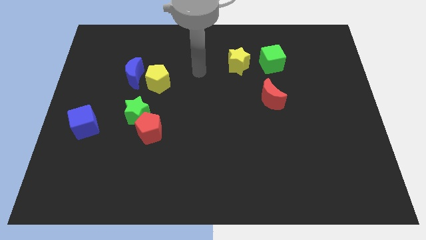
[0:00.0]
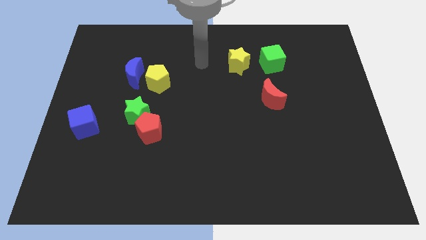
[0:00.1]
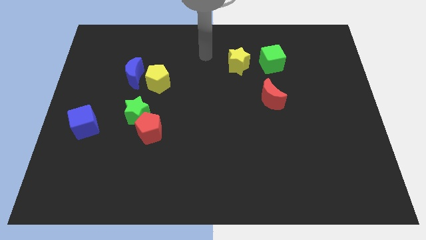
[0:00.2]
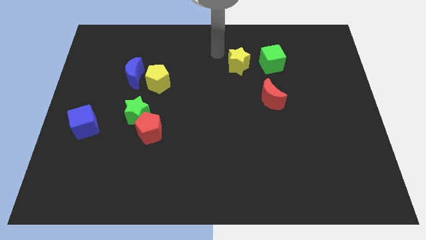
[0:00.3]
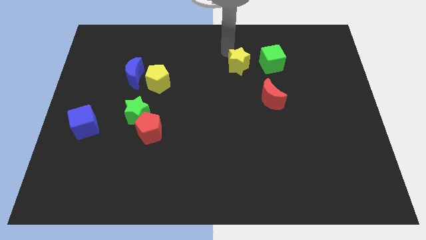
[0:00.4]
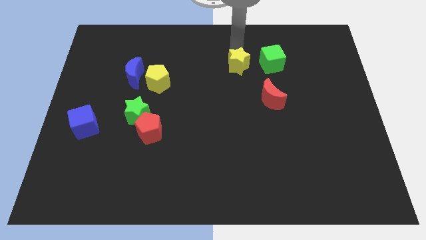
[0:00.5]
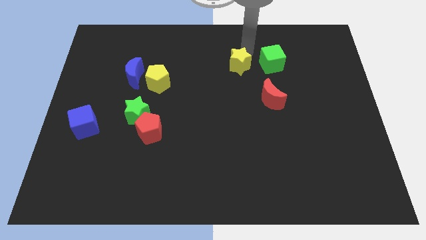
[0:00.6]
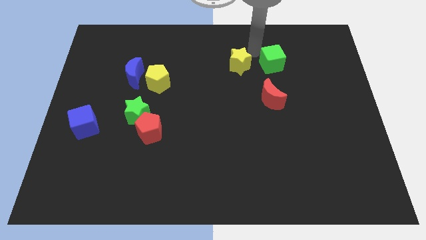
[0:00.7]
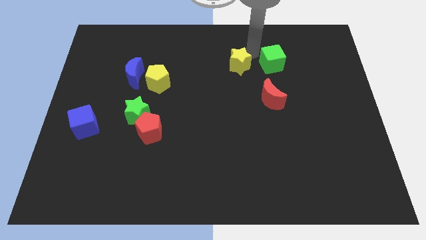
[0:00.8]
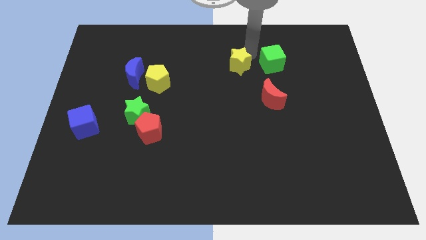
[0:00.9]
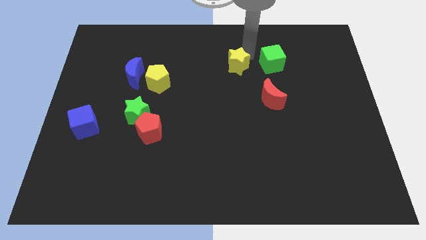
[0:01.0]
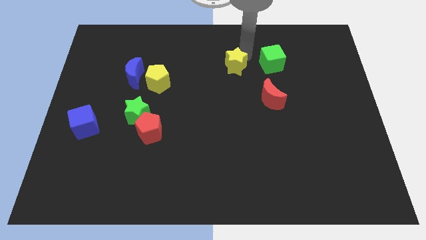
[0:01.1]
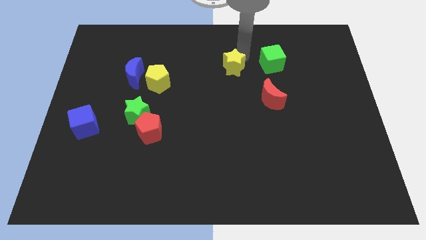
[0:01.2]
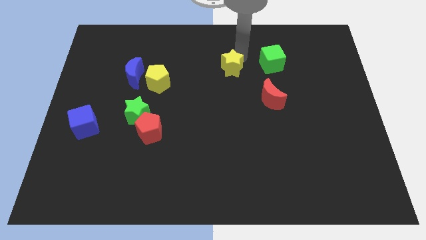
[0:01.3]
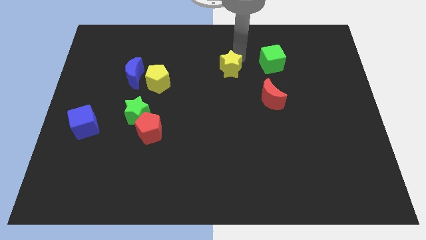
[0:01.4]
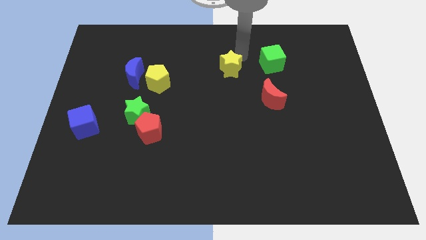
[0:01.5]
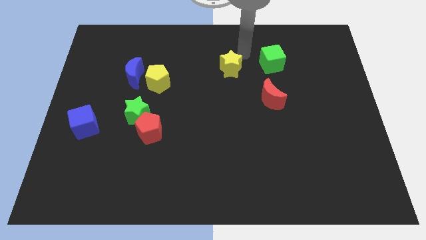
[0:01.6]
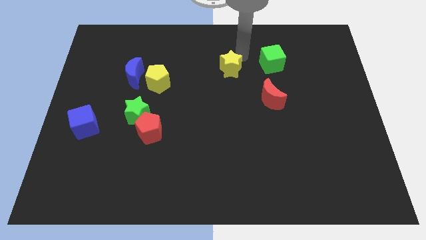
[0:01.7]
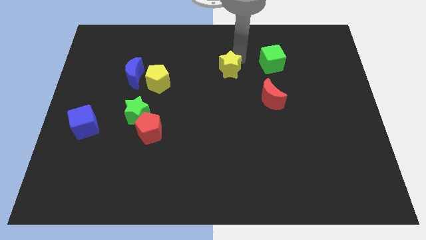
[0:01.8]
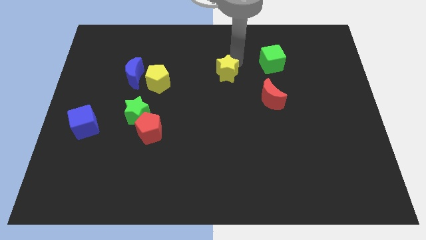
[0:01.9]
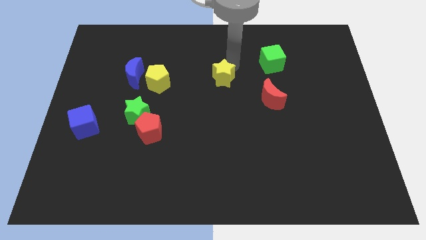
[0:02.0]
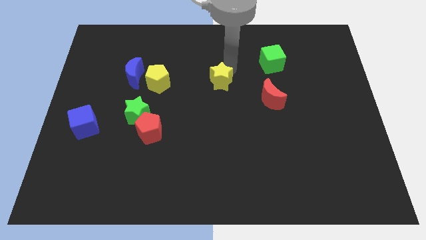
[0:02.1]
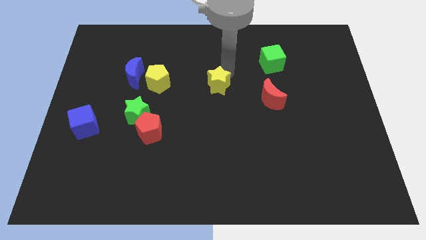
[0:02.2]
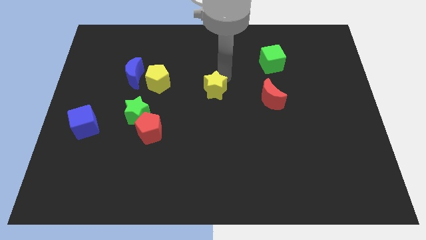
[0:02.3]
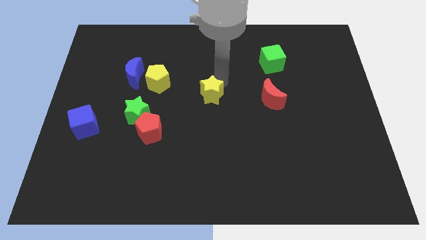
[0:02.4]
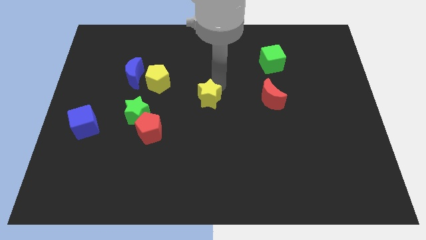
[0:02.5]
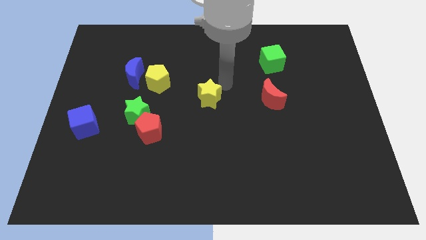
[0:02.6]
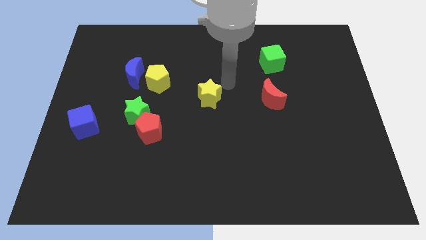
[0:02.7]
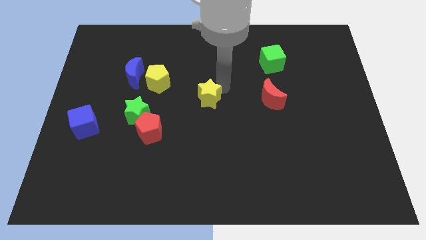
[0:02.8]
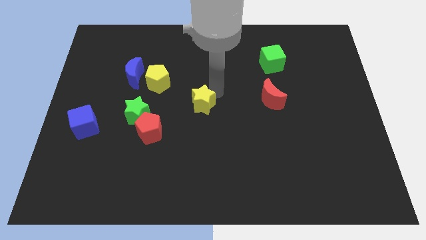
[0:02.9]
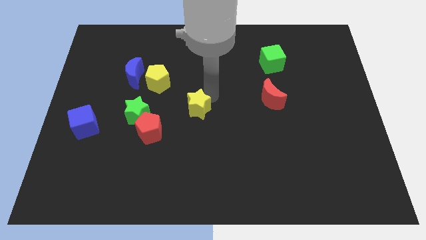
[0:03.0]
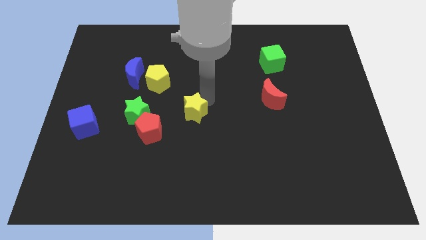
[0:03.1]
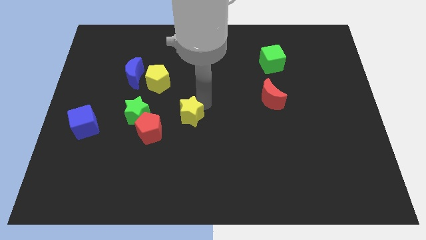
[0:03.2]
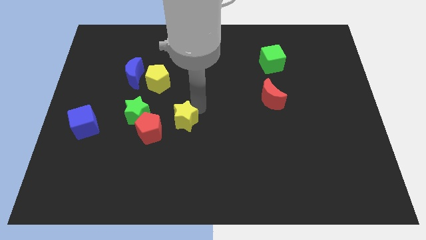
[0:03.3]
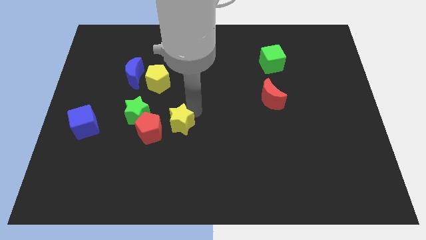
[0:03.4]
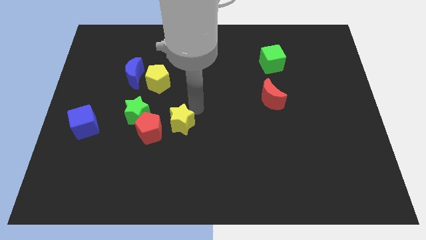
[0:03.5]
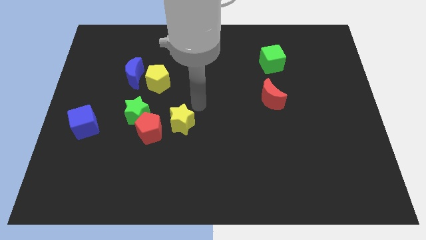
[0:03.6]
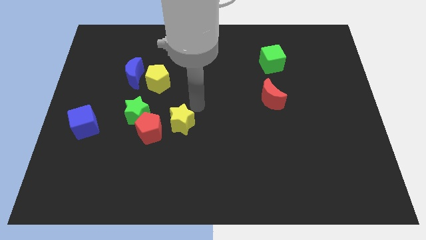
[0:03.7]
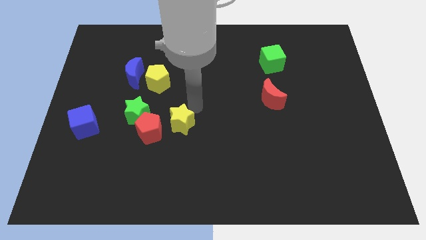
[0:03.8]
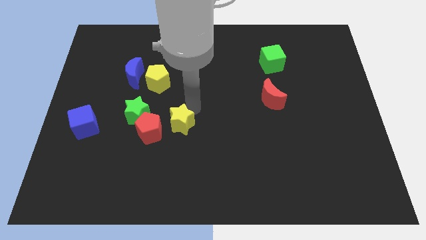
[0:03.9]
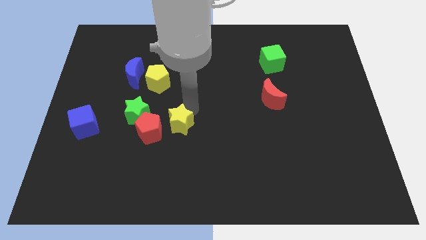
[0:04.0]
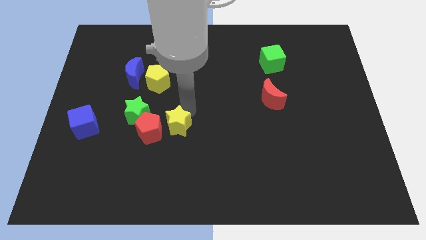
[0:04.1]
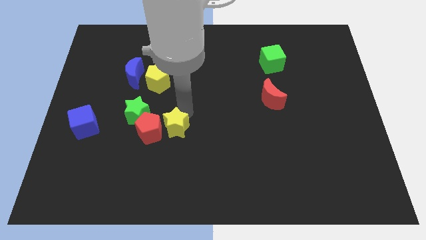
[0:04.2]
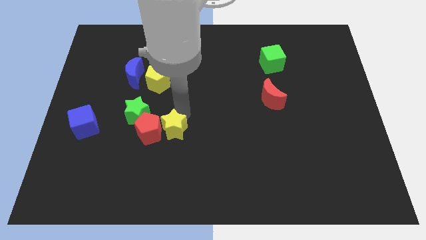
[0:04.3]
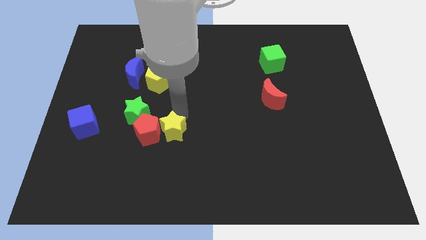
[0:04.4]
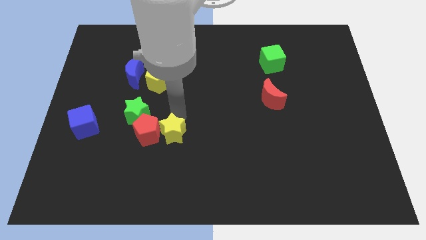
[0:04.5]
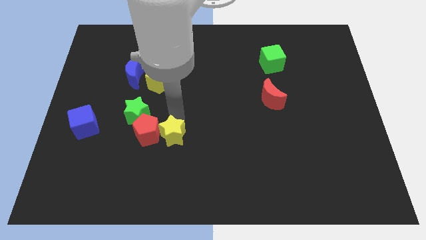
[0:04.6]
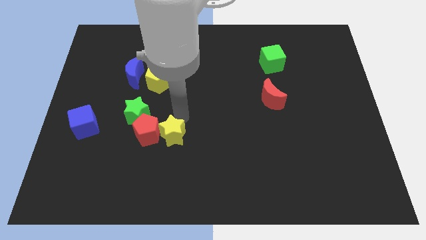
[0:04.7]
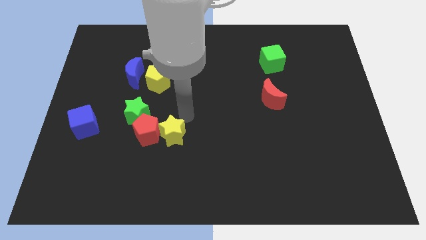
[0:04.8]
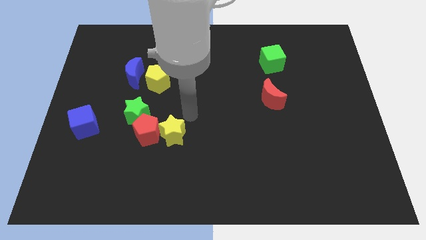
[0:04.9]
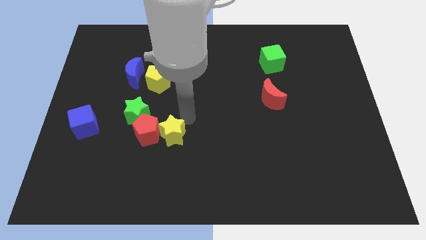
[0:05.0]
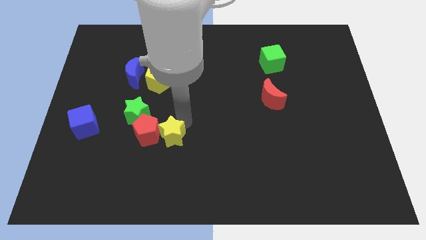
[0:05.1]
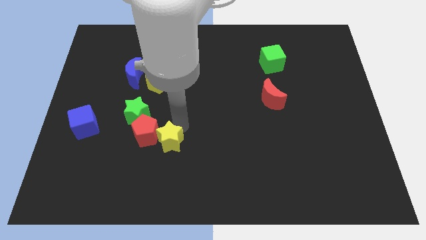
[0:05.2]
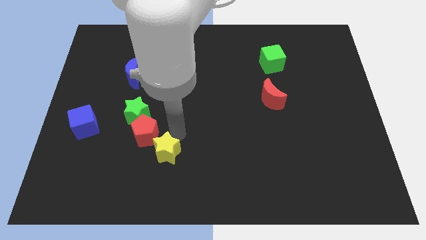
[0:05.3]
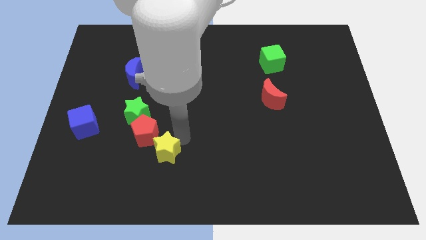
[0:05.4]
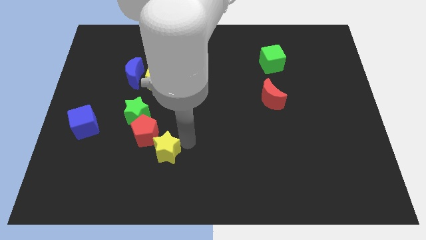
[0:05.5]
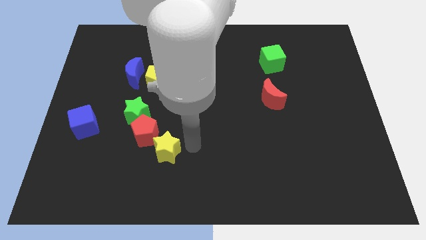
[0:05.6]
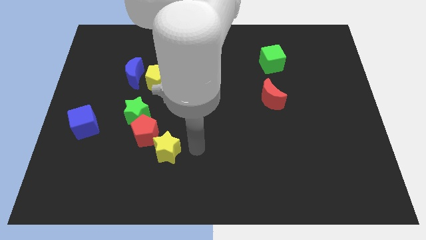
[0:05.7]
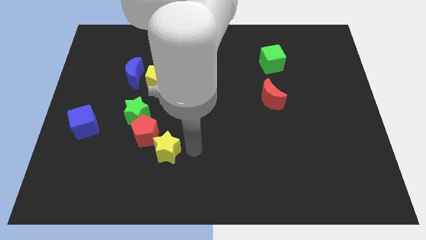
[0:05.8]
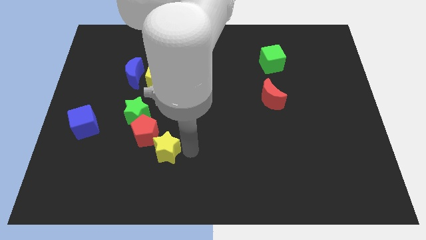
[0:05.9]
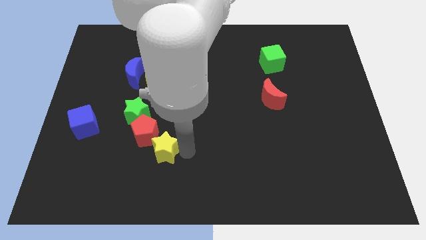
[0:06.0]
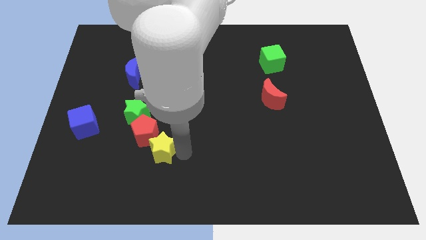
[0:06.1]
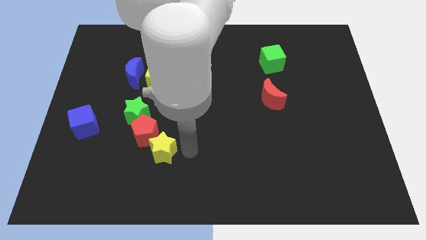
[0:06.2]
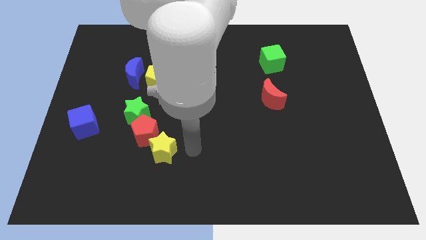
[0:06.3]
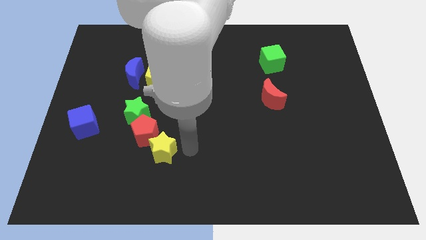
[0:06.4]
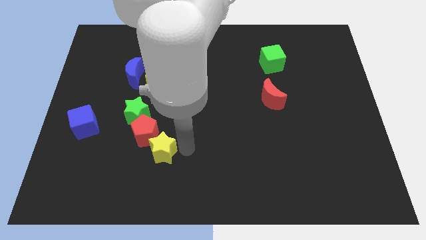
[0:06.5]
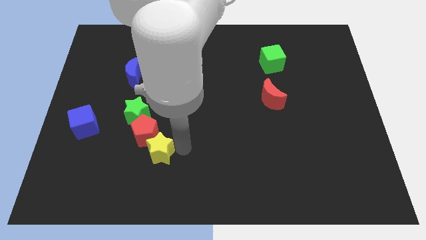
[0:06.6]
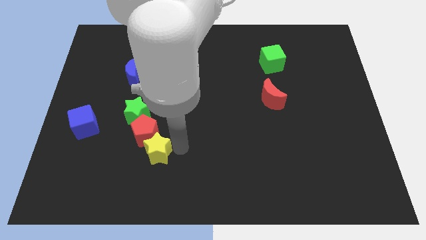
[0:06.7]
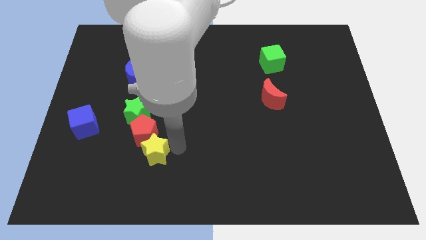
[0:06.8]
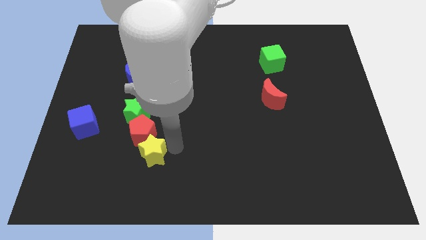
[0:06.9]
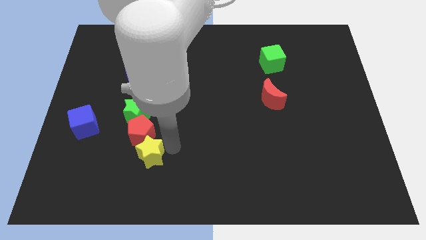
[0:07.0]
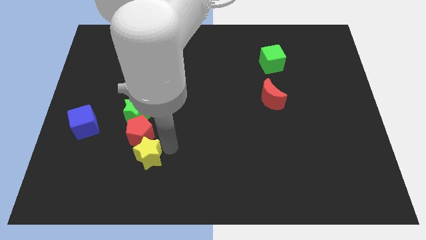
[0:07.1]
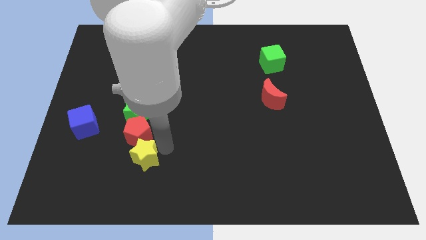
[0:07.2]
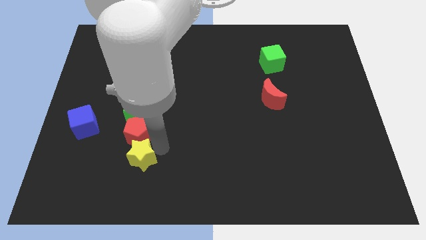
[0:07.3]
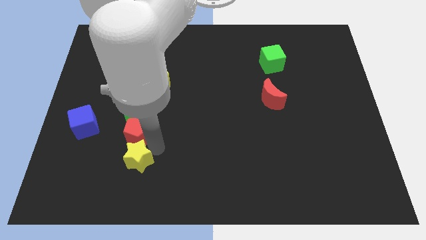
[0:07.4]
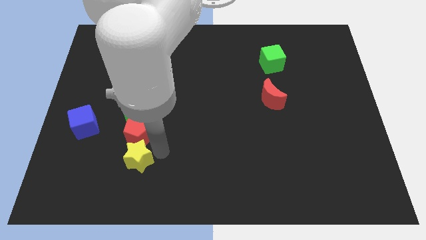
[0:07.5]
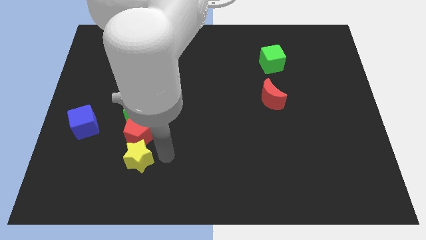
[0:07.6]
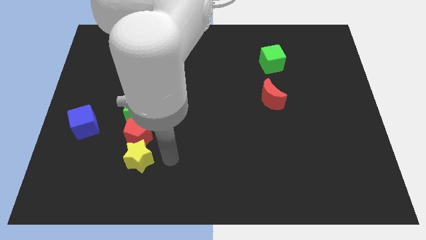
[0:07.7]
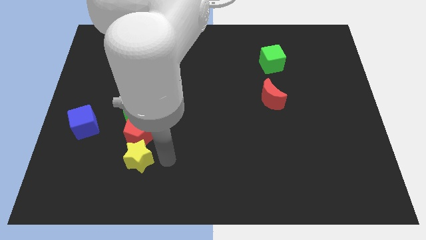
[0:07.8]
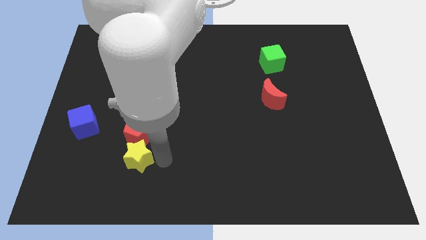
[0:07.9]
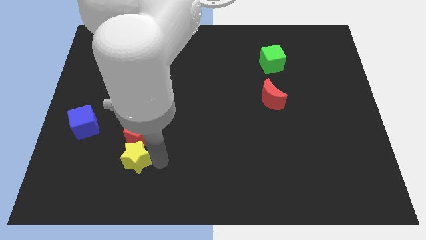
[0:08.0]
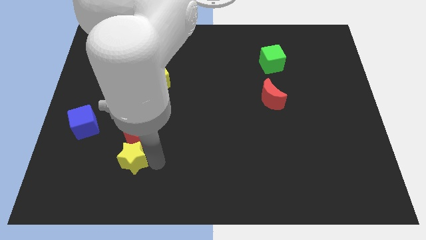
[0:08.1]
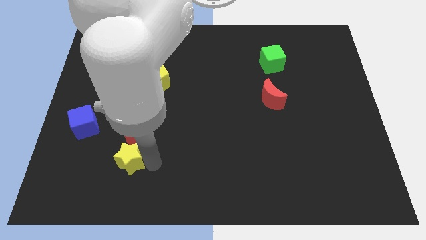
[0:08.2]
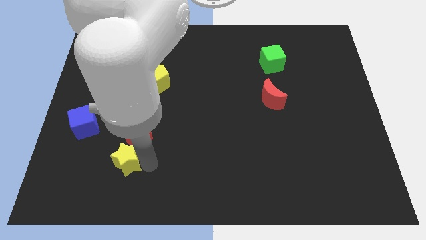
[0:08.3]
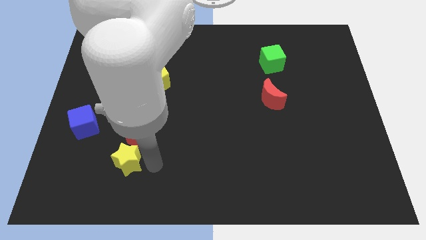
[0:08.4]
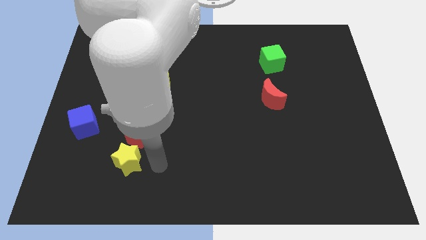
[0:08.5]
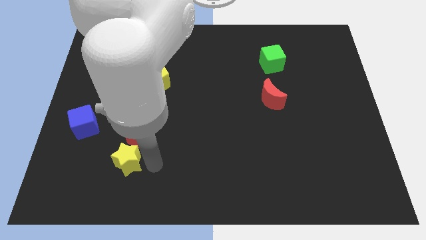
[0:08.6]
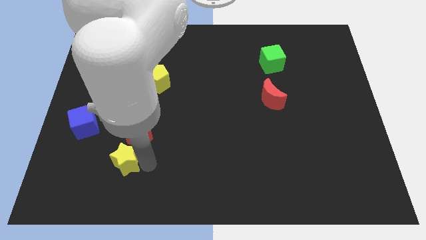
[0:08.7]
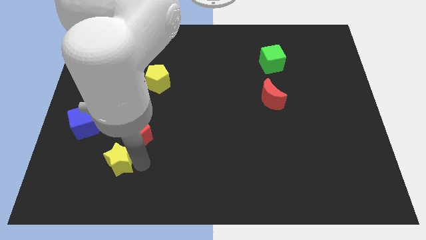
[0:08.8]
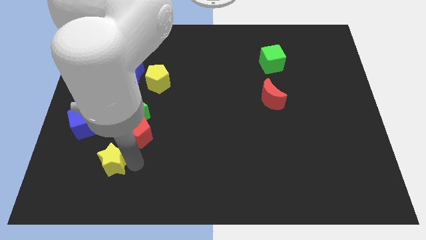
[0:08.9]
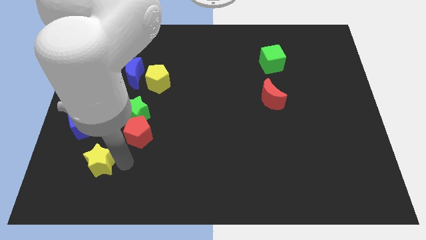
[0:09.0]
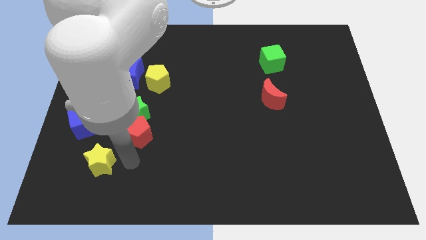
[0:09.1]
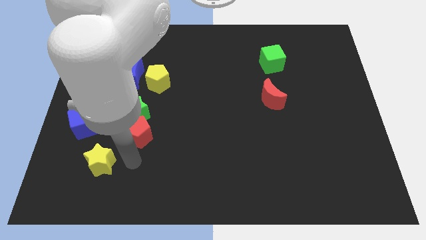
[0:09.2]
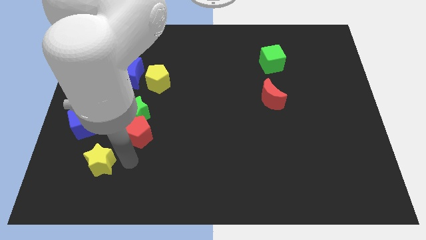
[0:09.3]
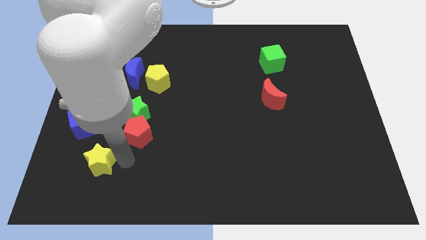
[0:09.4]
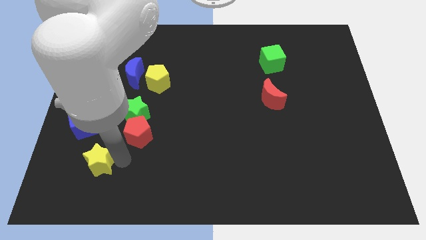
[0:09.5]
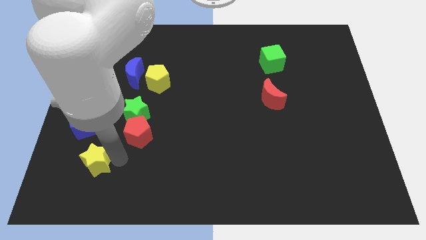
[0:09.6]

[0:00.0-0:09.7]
push the yellow star to the bottom of the blue cube
